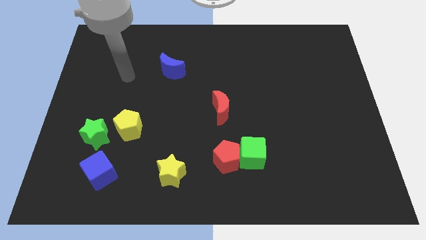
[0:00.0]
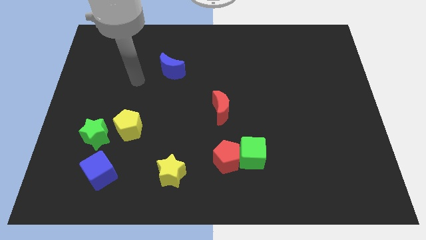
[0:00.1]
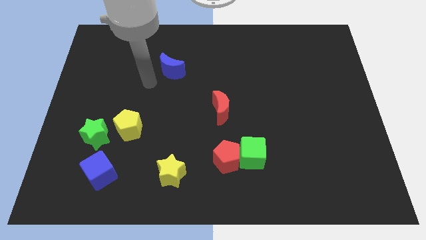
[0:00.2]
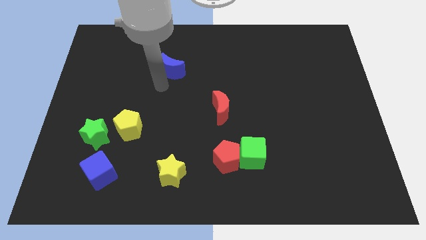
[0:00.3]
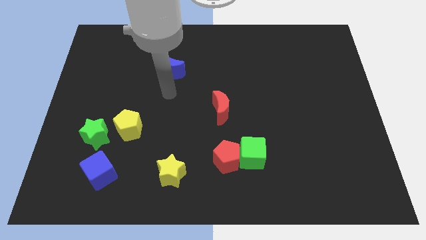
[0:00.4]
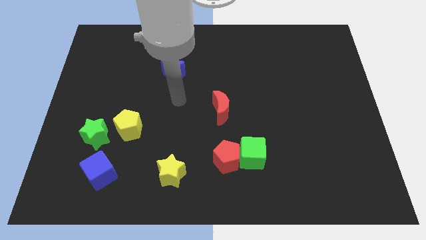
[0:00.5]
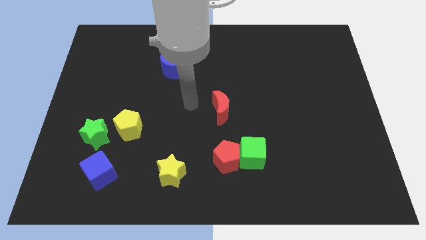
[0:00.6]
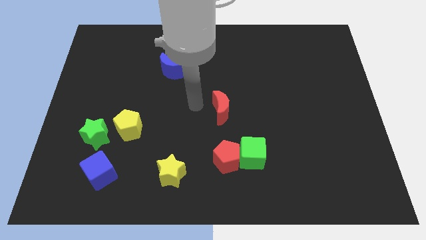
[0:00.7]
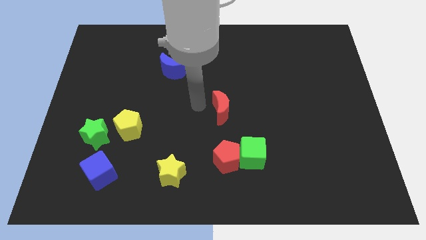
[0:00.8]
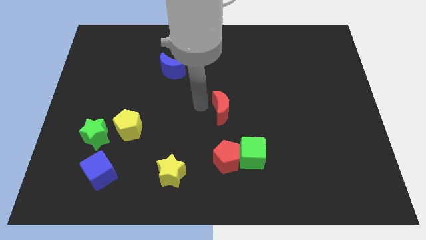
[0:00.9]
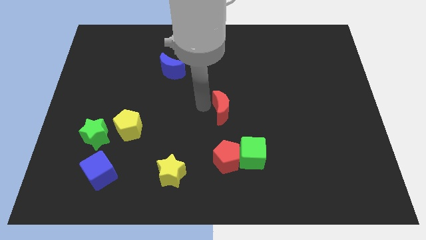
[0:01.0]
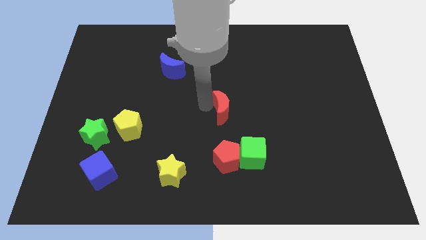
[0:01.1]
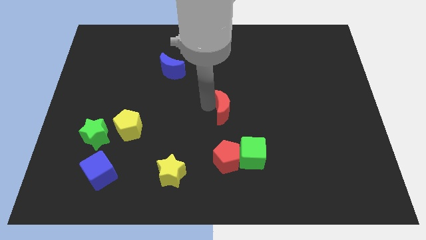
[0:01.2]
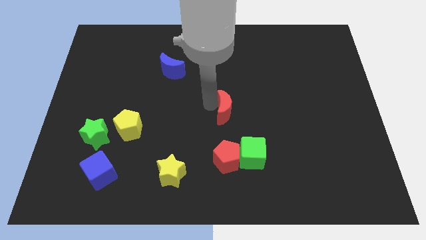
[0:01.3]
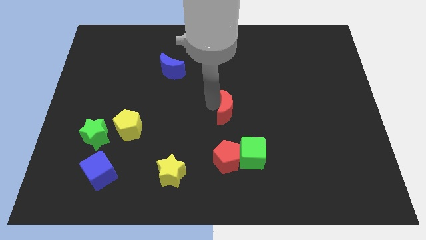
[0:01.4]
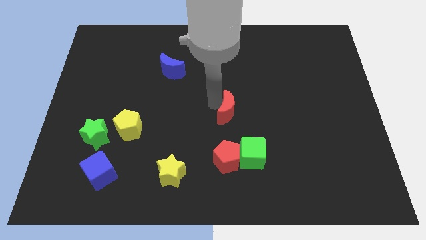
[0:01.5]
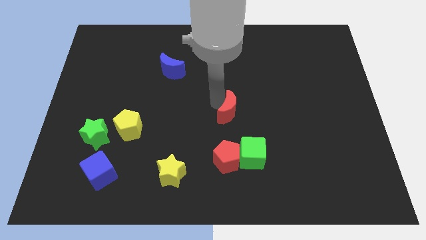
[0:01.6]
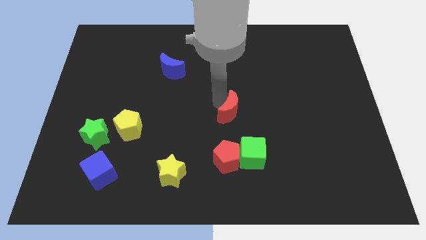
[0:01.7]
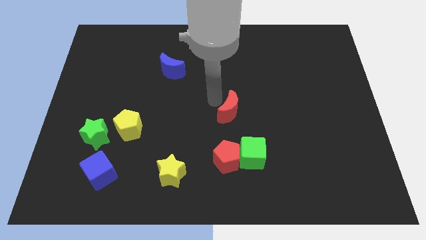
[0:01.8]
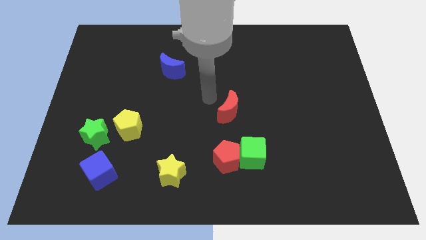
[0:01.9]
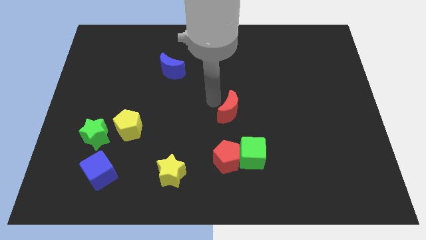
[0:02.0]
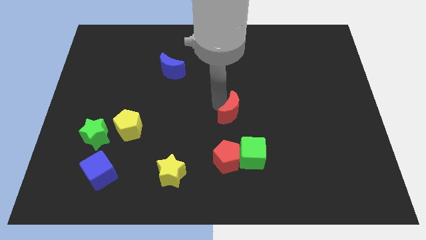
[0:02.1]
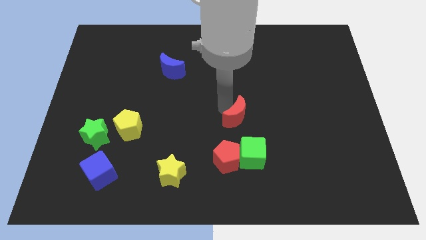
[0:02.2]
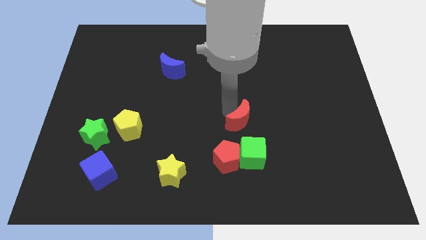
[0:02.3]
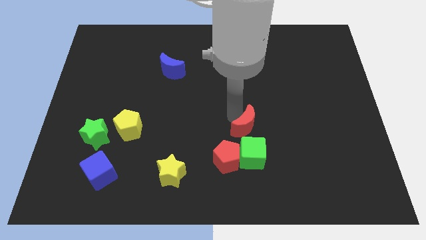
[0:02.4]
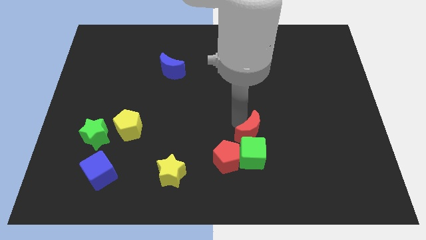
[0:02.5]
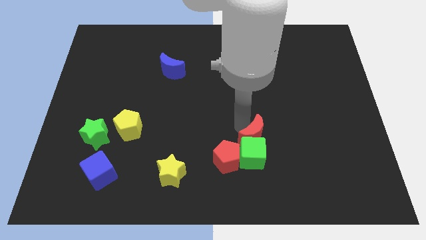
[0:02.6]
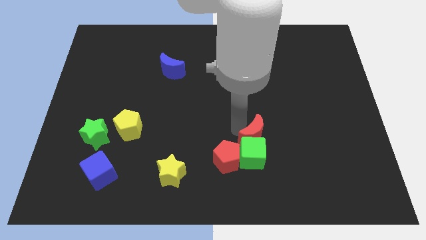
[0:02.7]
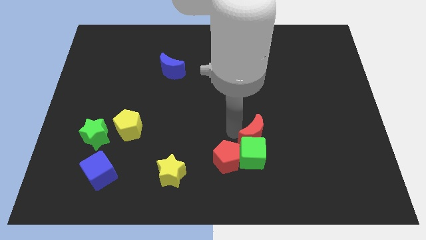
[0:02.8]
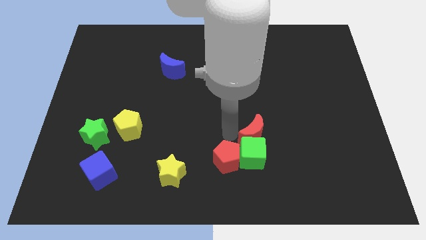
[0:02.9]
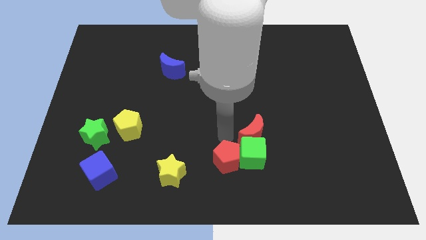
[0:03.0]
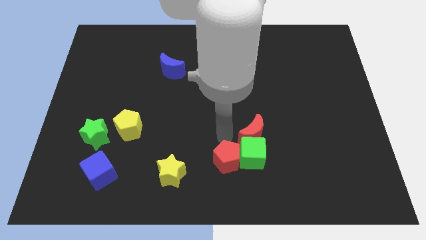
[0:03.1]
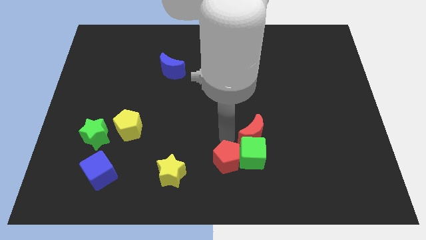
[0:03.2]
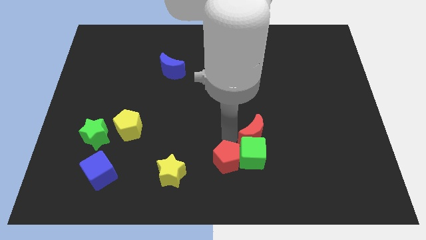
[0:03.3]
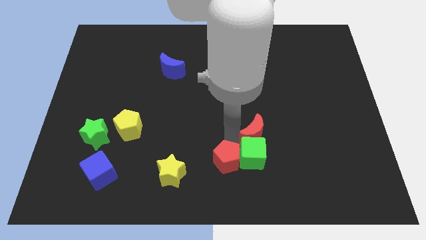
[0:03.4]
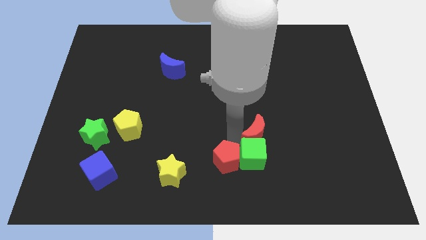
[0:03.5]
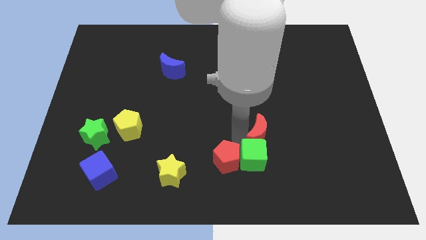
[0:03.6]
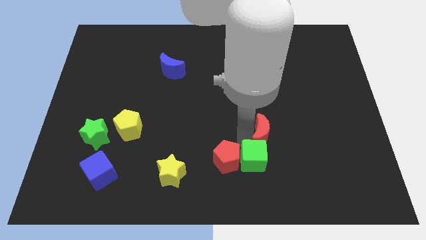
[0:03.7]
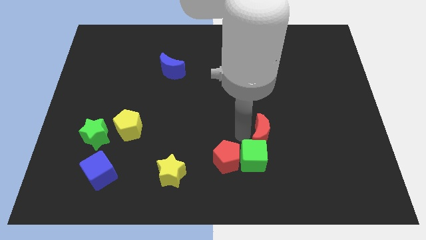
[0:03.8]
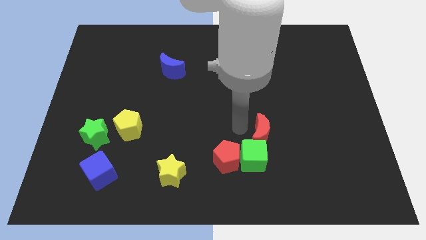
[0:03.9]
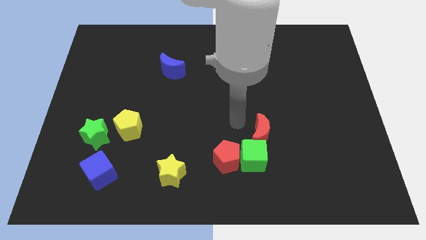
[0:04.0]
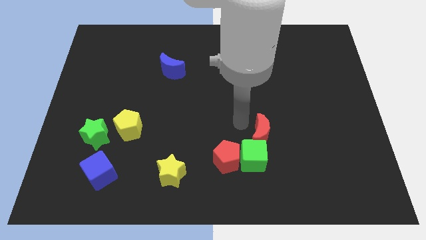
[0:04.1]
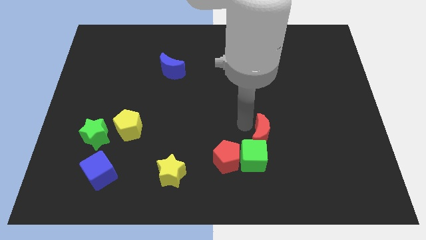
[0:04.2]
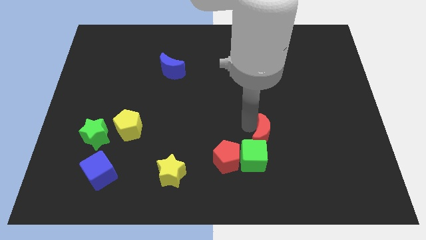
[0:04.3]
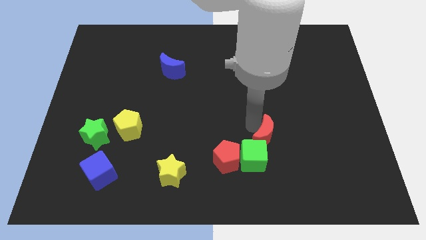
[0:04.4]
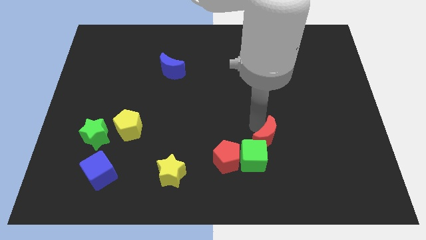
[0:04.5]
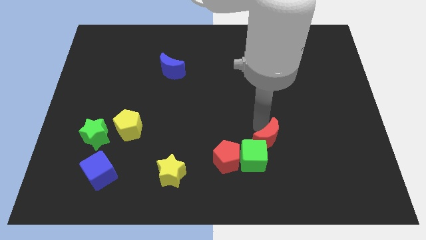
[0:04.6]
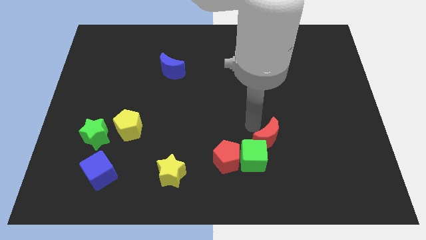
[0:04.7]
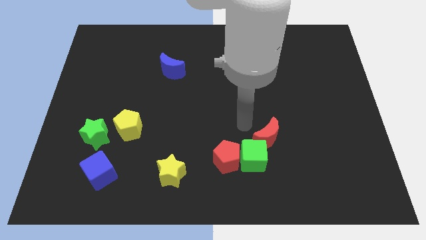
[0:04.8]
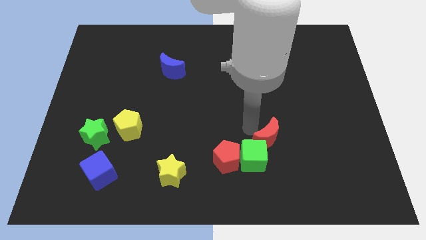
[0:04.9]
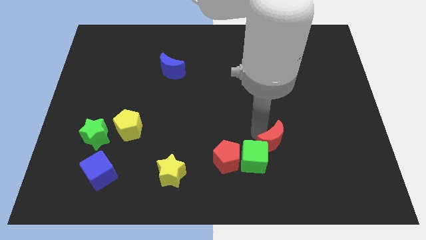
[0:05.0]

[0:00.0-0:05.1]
move the red moon right of the green cube

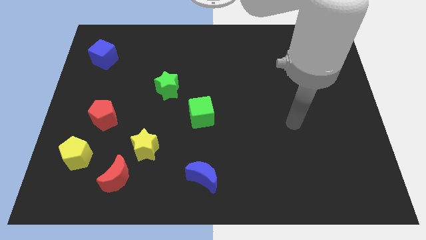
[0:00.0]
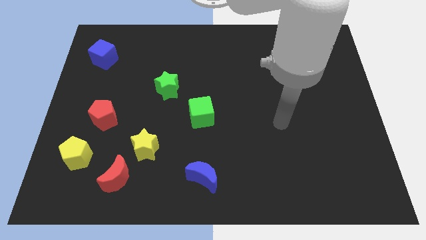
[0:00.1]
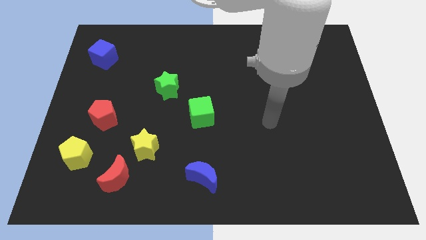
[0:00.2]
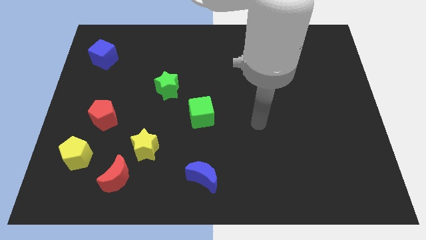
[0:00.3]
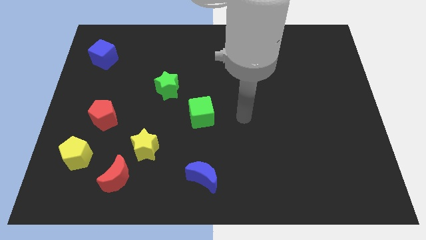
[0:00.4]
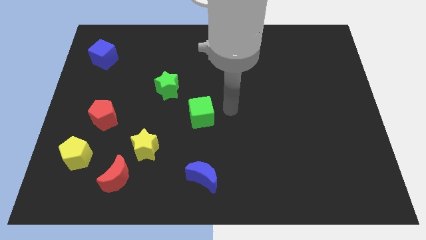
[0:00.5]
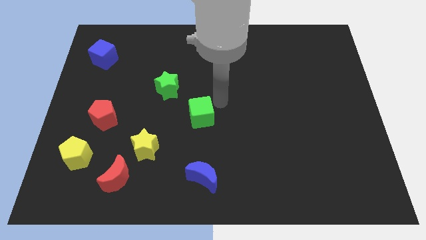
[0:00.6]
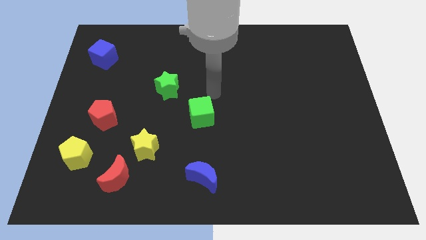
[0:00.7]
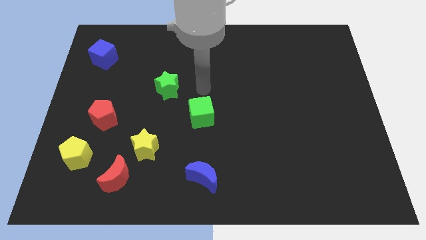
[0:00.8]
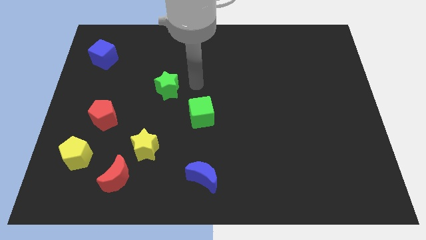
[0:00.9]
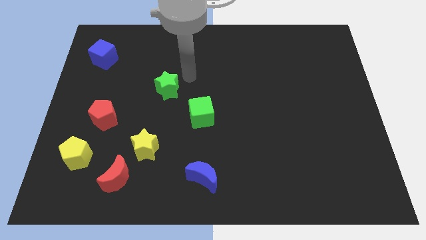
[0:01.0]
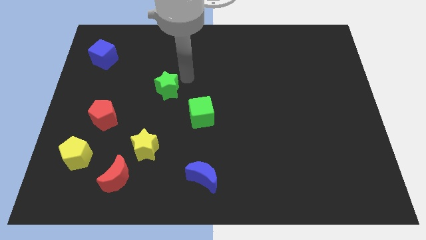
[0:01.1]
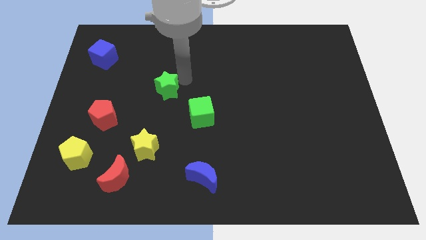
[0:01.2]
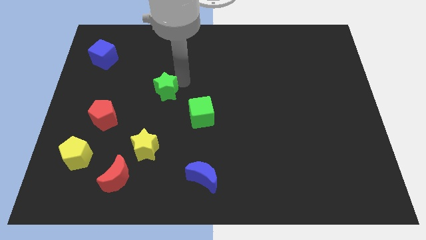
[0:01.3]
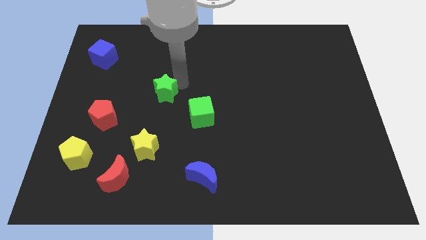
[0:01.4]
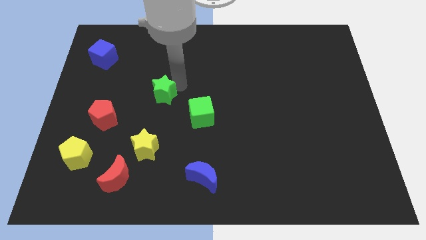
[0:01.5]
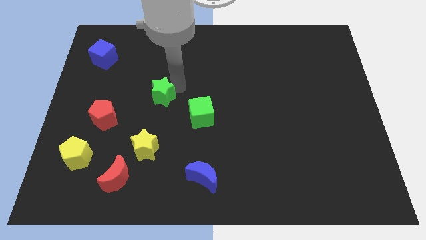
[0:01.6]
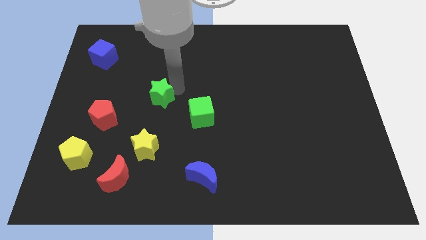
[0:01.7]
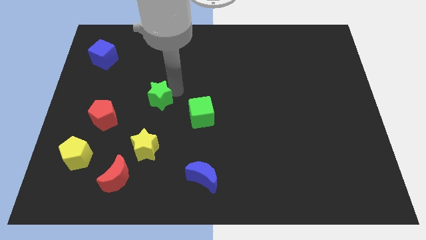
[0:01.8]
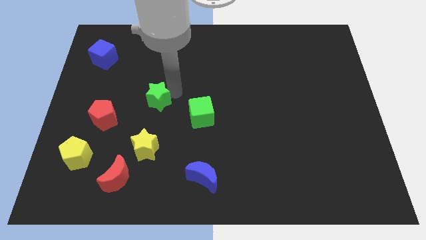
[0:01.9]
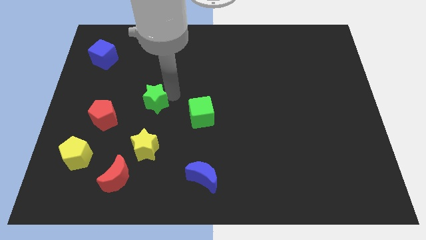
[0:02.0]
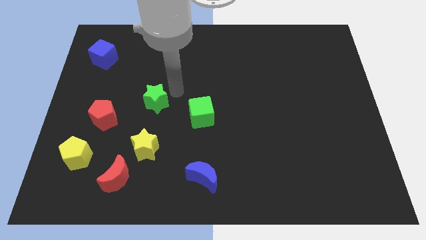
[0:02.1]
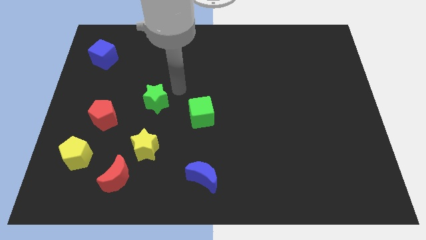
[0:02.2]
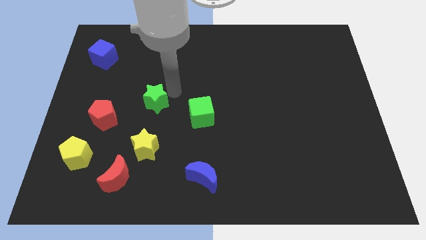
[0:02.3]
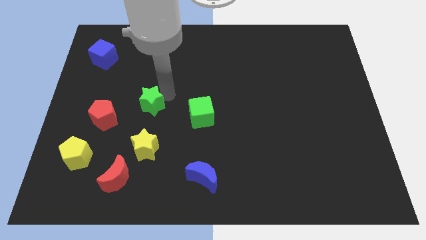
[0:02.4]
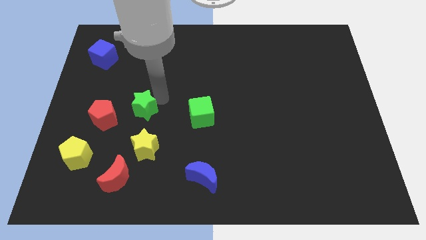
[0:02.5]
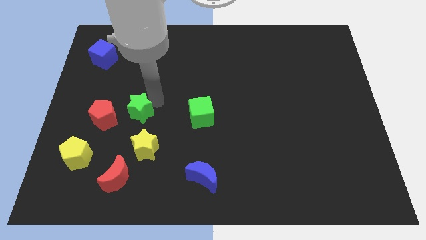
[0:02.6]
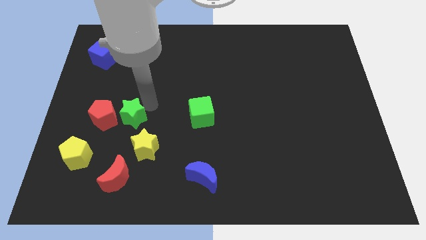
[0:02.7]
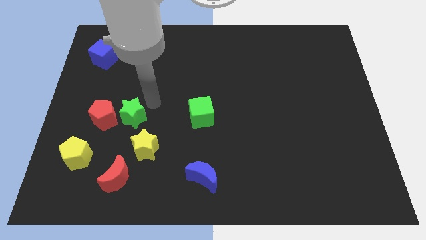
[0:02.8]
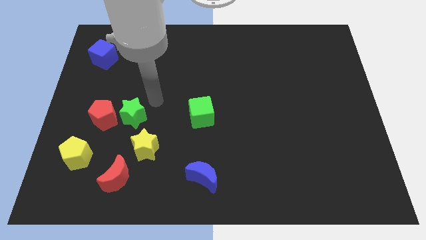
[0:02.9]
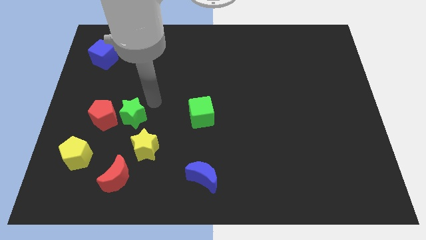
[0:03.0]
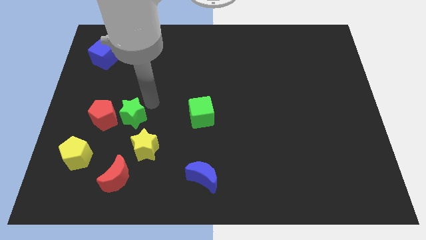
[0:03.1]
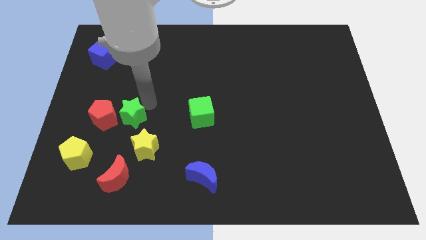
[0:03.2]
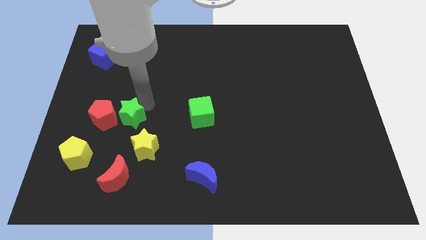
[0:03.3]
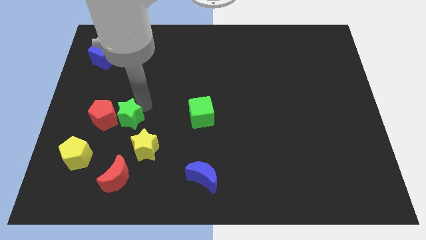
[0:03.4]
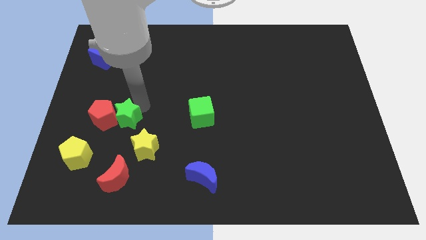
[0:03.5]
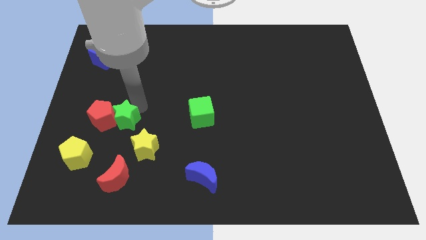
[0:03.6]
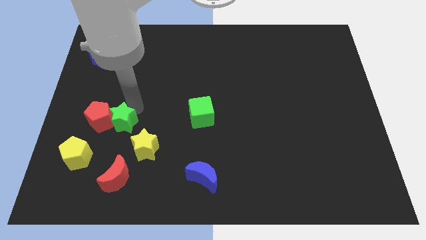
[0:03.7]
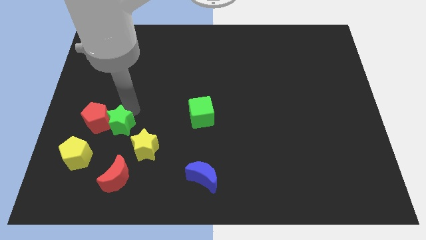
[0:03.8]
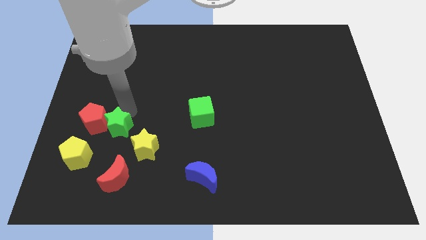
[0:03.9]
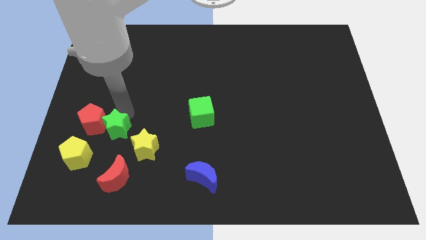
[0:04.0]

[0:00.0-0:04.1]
slide the green star left of the yellow star
